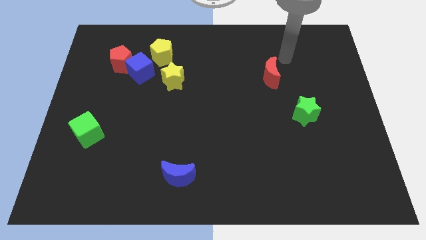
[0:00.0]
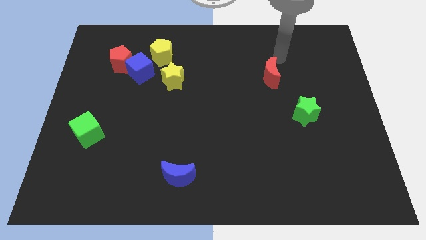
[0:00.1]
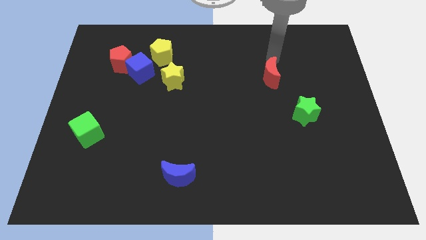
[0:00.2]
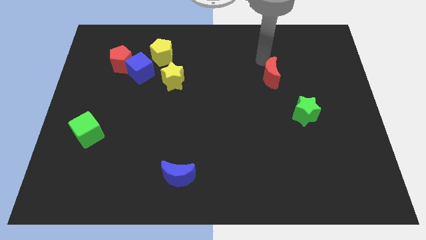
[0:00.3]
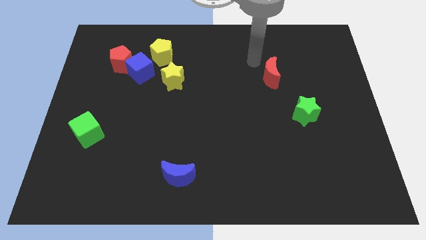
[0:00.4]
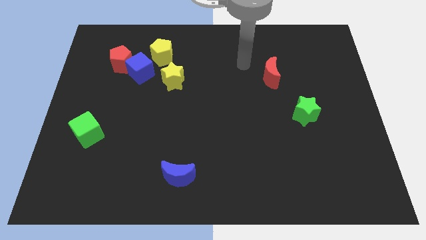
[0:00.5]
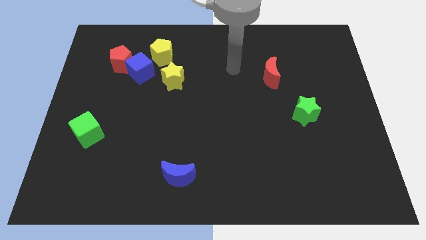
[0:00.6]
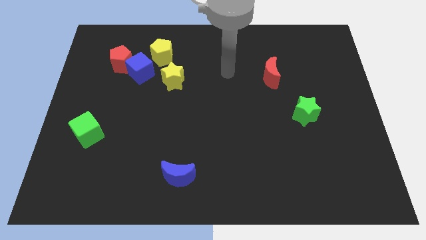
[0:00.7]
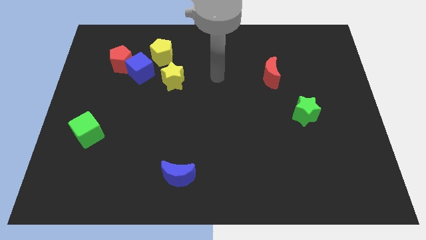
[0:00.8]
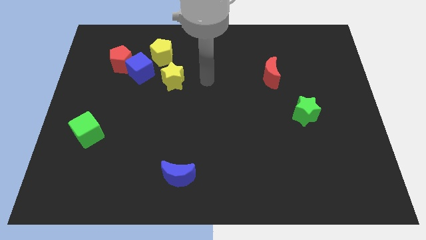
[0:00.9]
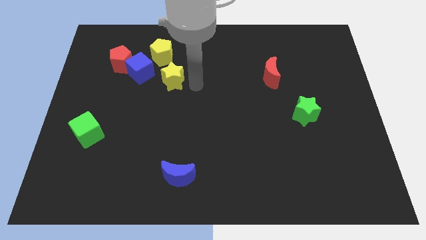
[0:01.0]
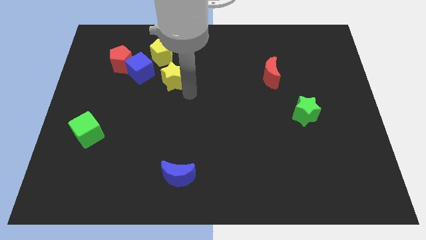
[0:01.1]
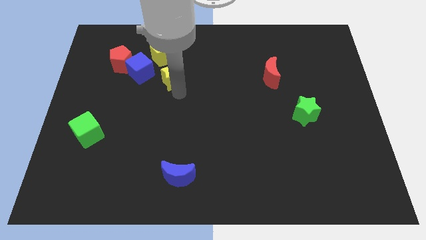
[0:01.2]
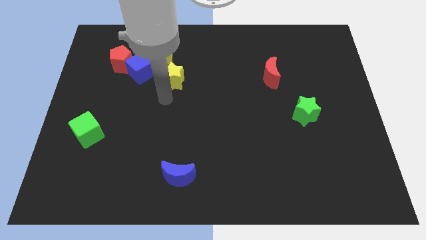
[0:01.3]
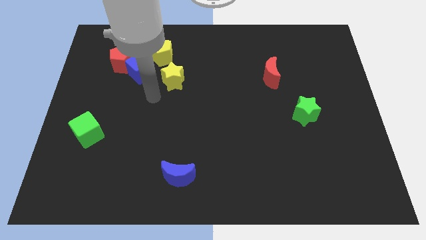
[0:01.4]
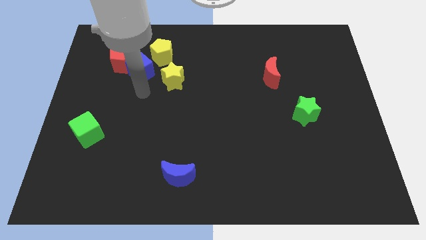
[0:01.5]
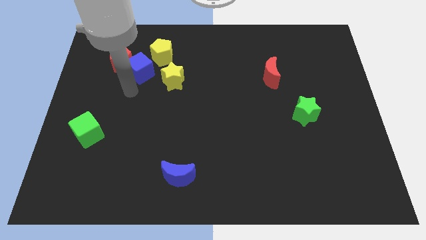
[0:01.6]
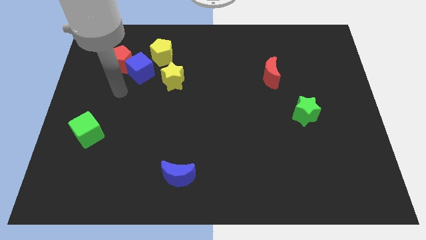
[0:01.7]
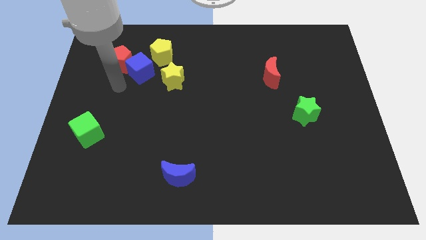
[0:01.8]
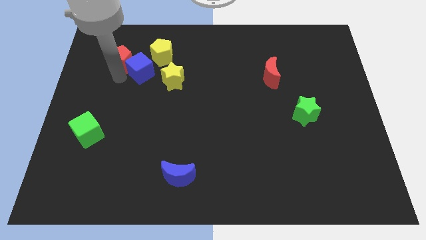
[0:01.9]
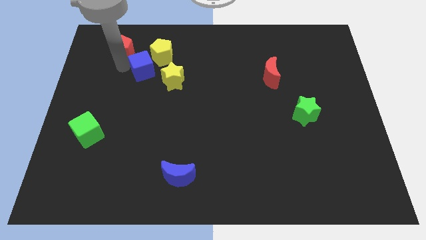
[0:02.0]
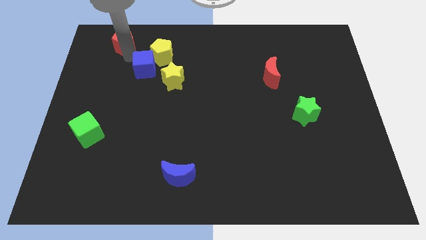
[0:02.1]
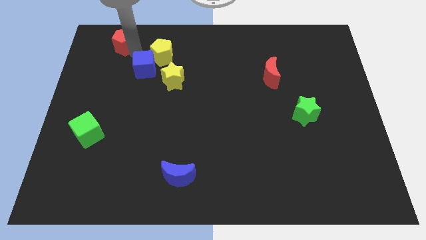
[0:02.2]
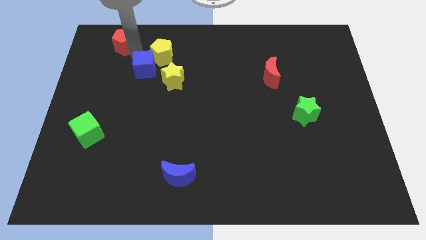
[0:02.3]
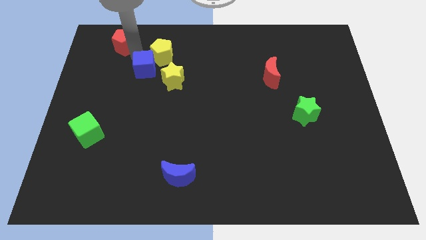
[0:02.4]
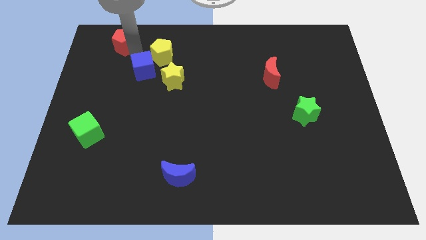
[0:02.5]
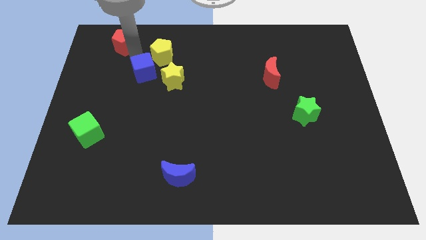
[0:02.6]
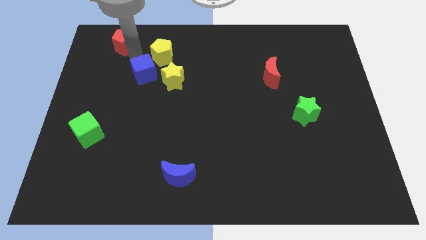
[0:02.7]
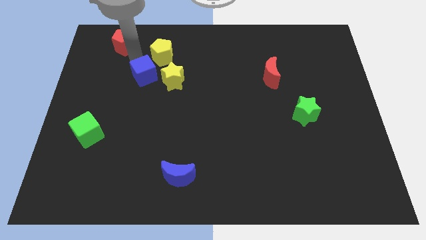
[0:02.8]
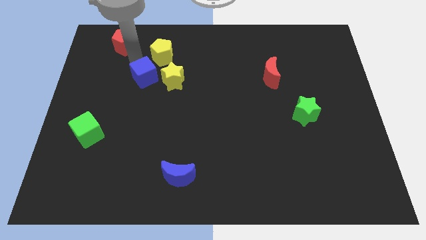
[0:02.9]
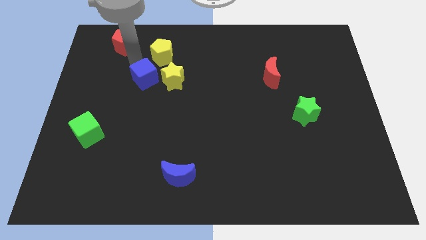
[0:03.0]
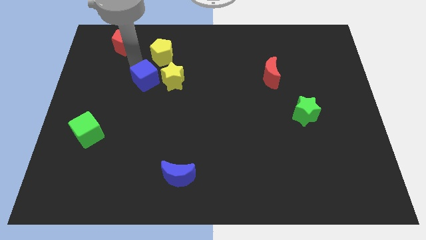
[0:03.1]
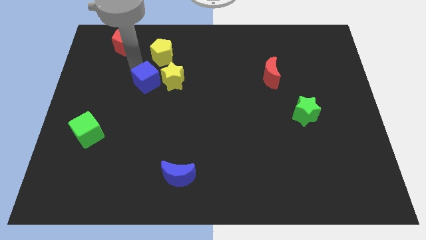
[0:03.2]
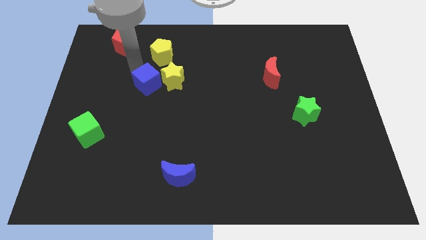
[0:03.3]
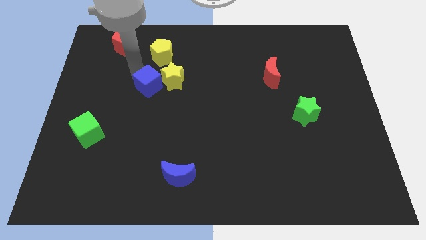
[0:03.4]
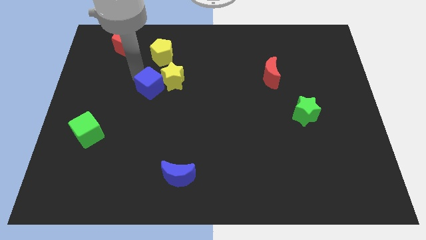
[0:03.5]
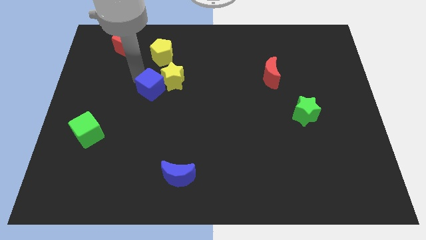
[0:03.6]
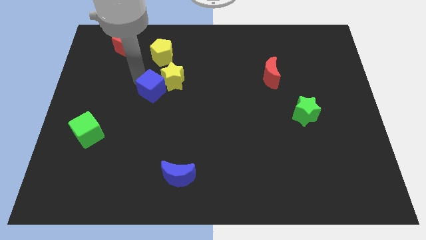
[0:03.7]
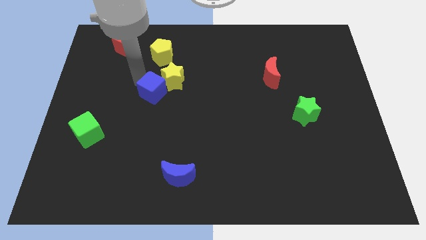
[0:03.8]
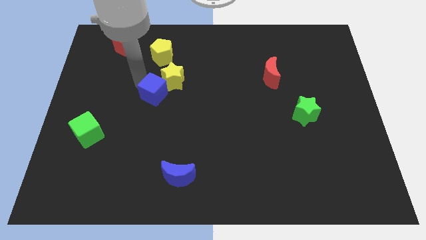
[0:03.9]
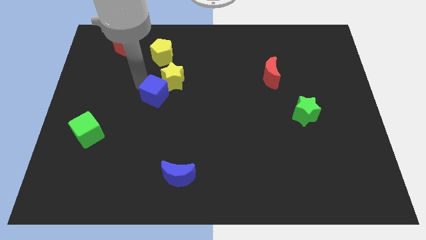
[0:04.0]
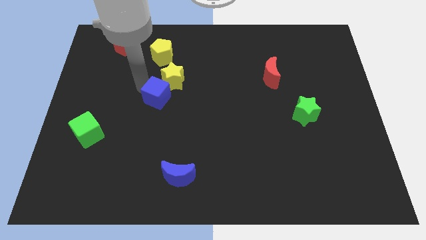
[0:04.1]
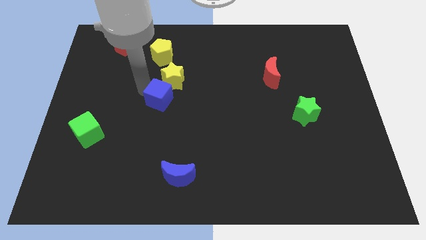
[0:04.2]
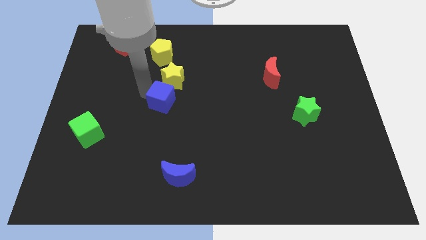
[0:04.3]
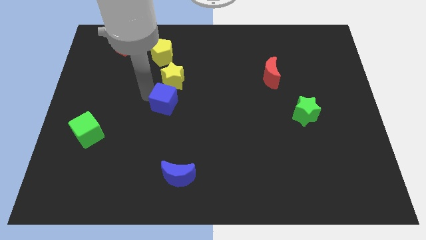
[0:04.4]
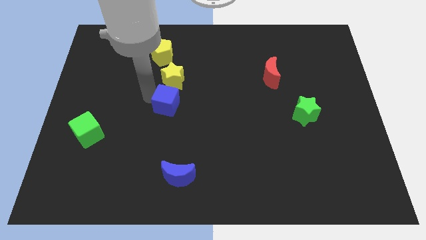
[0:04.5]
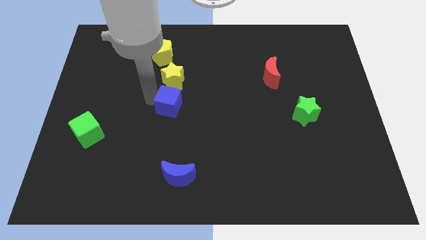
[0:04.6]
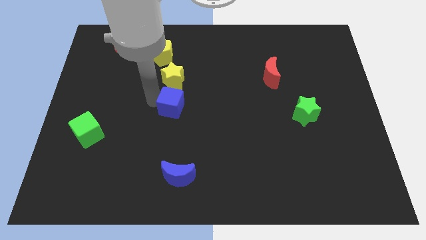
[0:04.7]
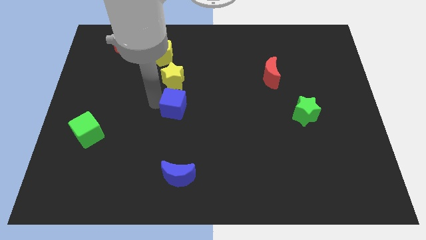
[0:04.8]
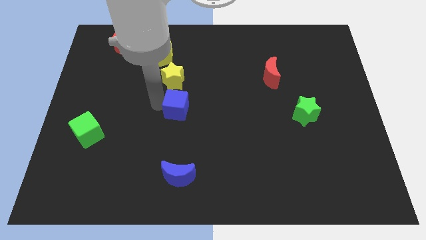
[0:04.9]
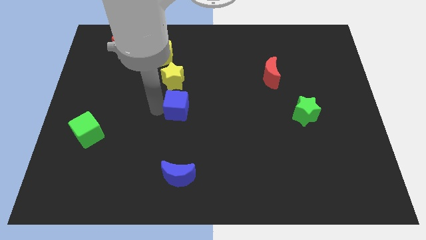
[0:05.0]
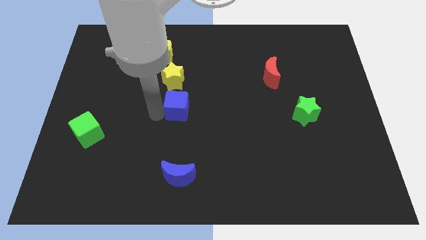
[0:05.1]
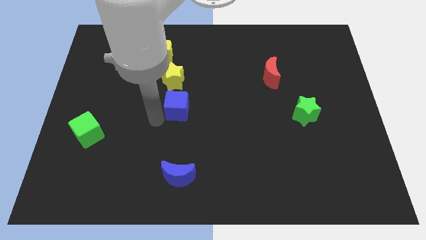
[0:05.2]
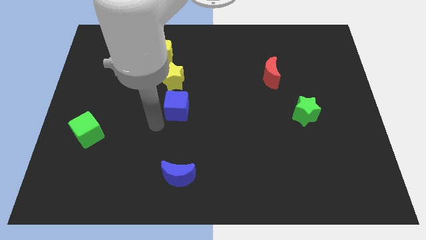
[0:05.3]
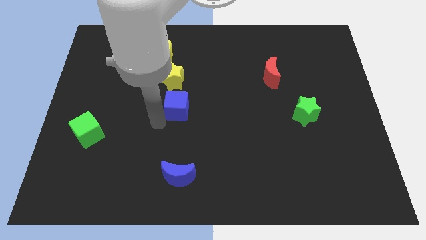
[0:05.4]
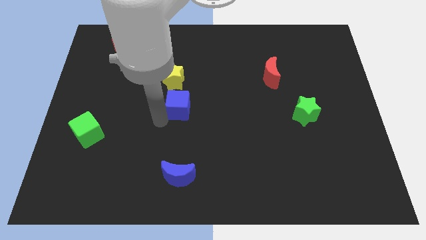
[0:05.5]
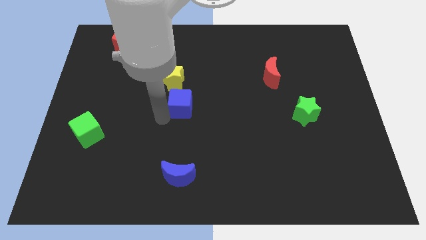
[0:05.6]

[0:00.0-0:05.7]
move the blue cube diagonally down and to the right of the yellow star

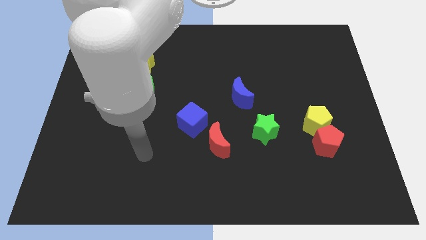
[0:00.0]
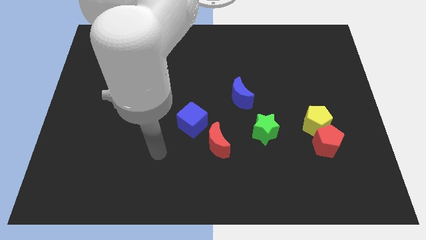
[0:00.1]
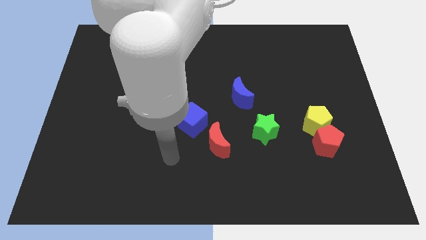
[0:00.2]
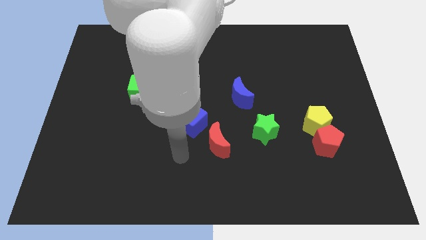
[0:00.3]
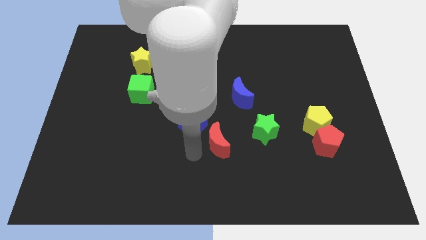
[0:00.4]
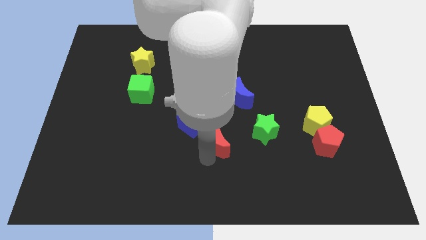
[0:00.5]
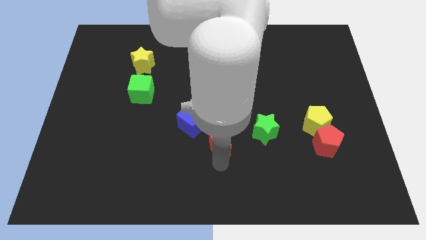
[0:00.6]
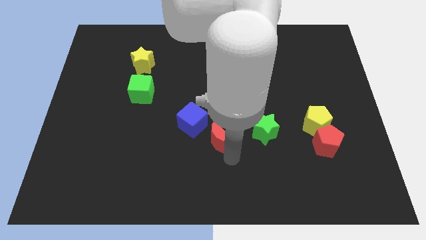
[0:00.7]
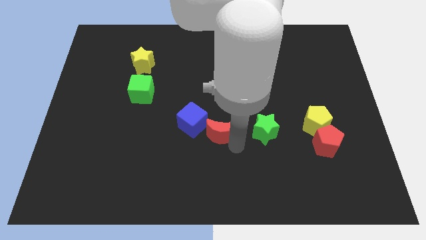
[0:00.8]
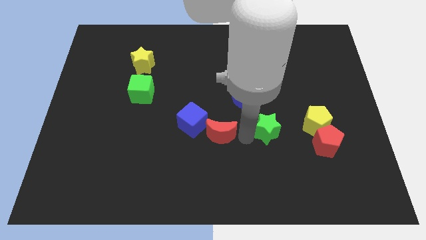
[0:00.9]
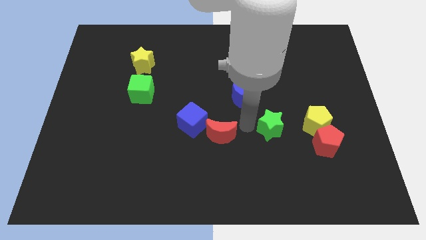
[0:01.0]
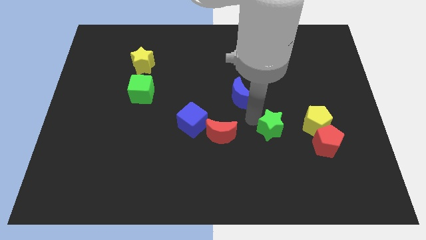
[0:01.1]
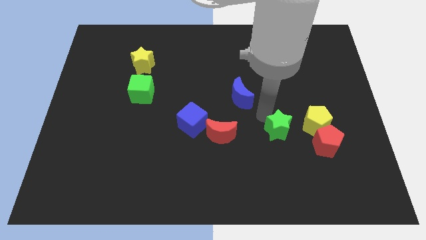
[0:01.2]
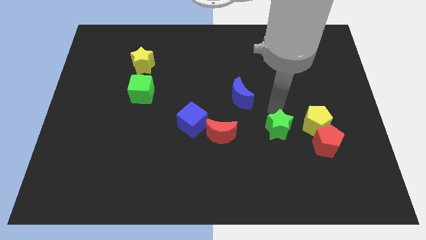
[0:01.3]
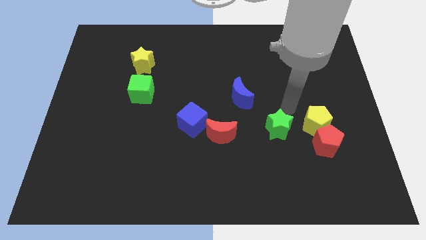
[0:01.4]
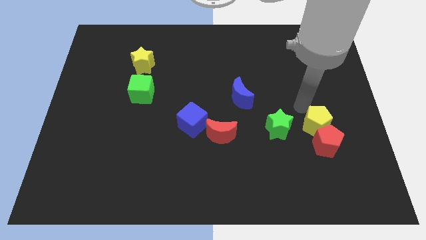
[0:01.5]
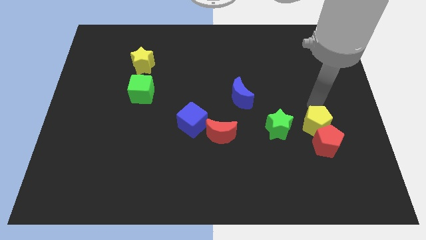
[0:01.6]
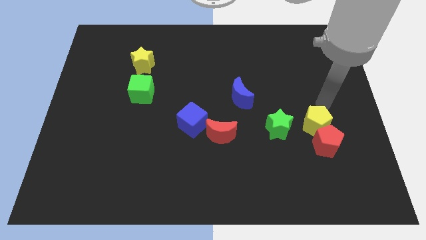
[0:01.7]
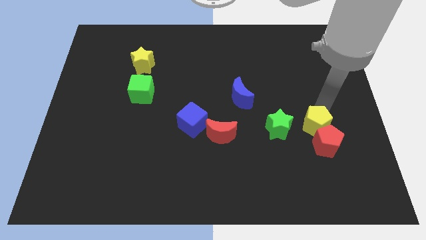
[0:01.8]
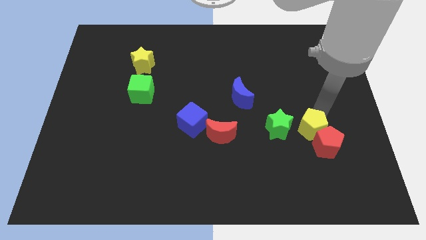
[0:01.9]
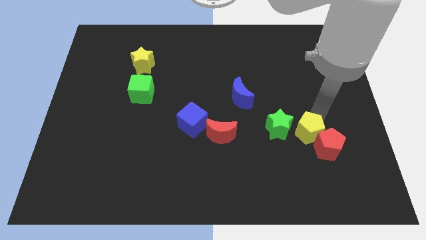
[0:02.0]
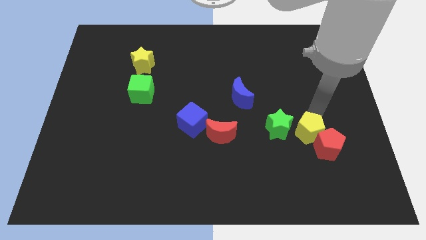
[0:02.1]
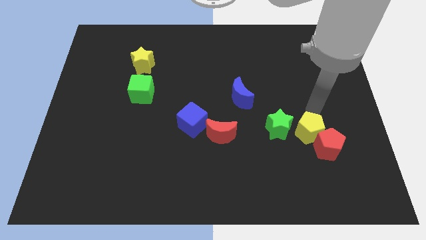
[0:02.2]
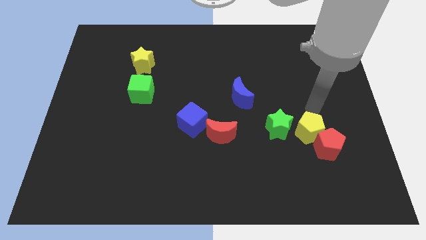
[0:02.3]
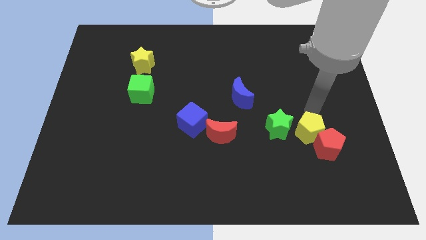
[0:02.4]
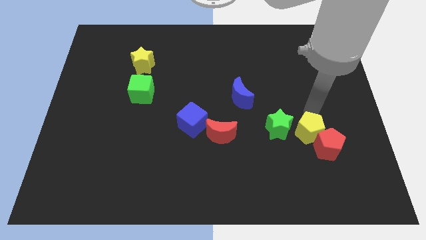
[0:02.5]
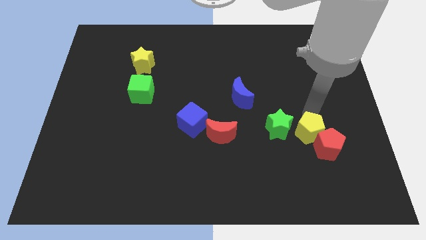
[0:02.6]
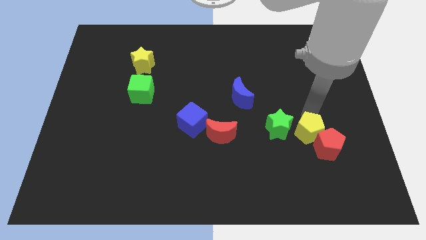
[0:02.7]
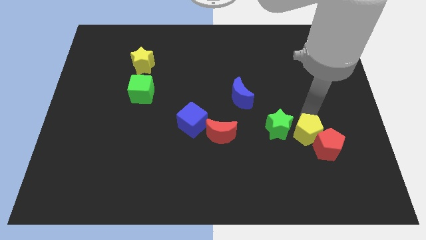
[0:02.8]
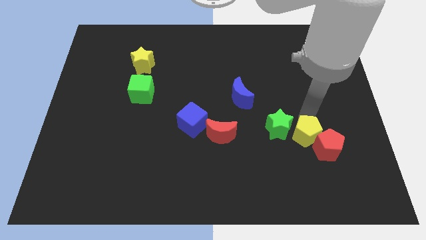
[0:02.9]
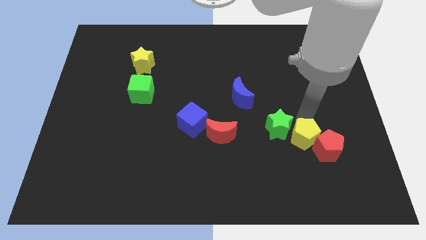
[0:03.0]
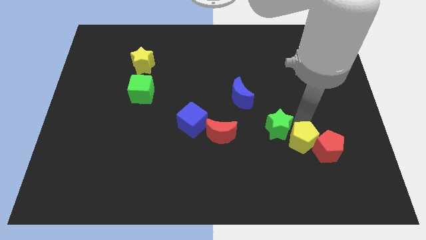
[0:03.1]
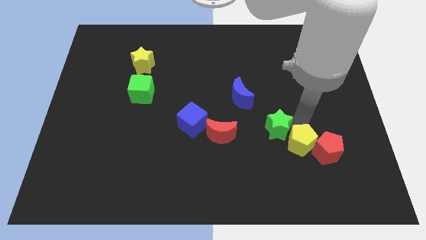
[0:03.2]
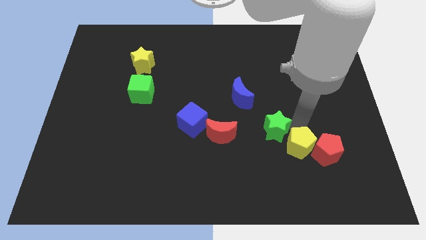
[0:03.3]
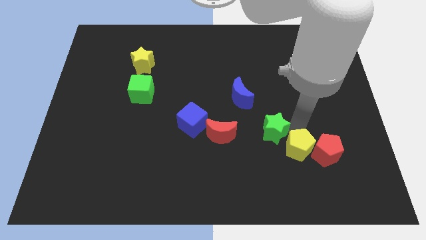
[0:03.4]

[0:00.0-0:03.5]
put the yellow pentagon to the bottom left of the red pentagon
